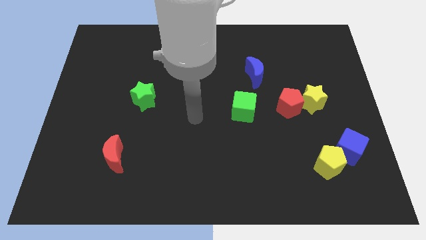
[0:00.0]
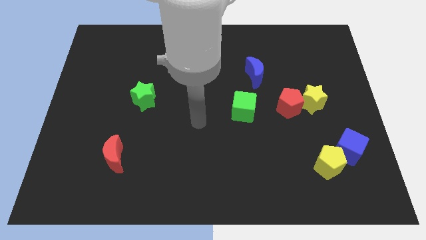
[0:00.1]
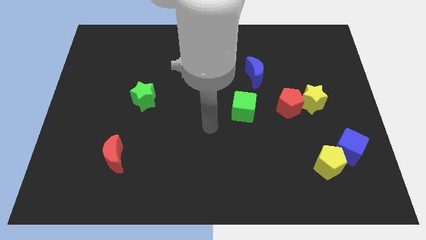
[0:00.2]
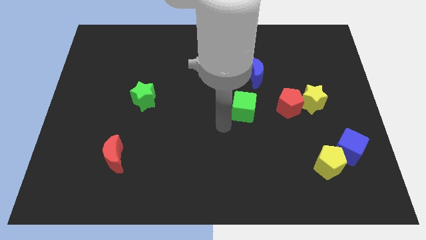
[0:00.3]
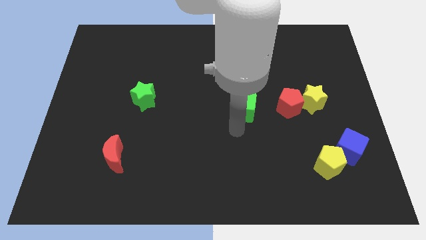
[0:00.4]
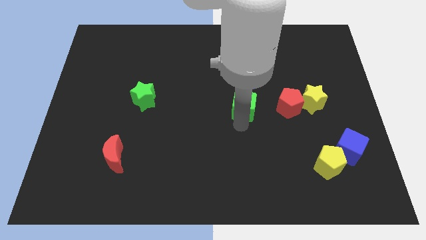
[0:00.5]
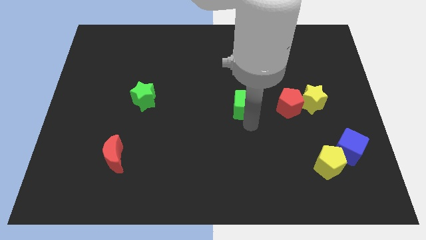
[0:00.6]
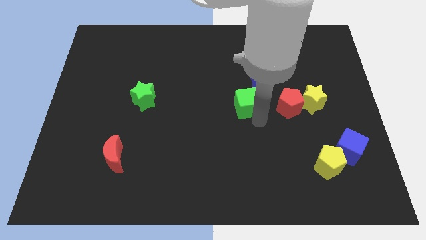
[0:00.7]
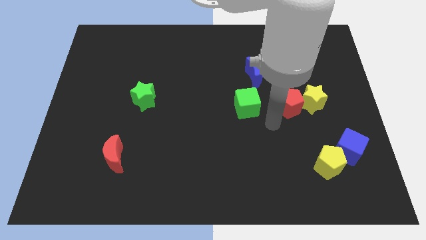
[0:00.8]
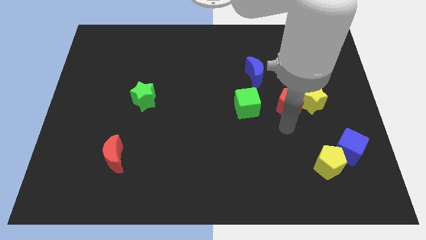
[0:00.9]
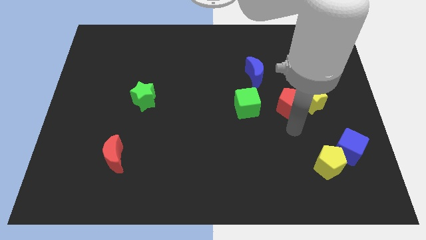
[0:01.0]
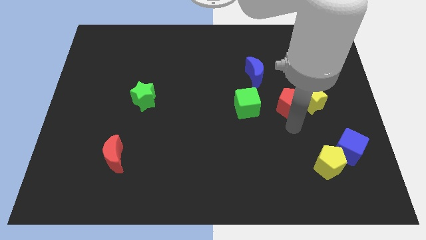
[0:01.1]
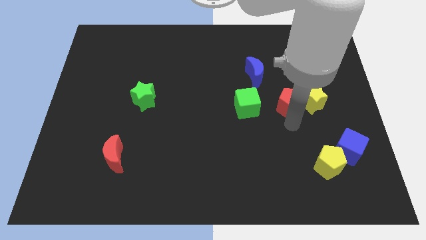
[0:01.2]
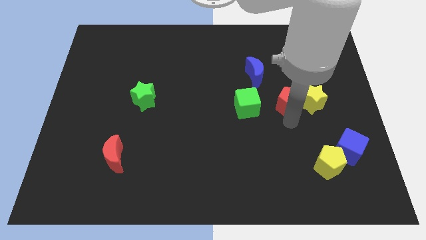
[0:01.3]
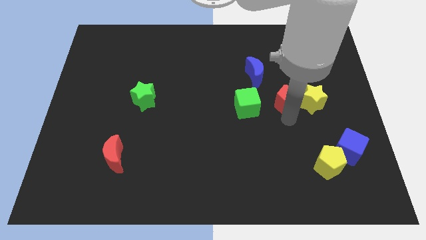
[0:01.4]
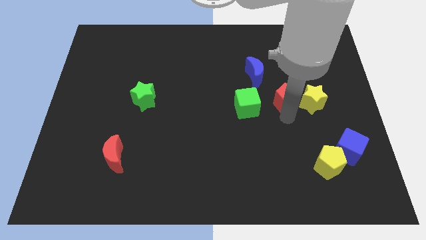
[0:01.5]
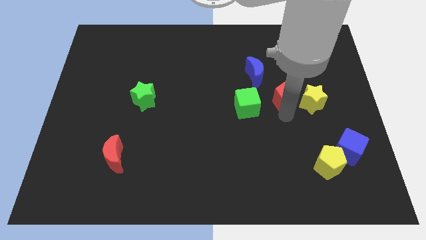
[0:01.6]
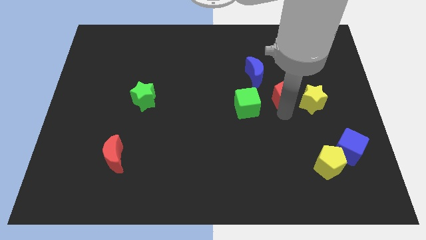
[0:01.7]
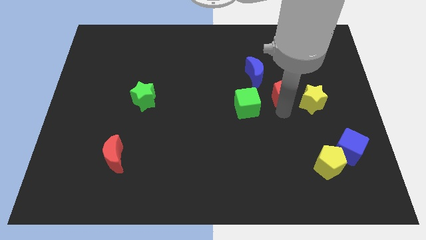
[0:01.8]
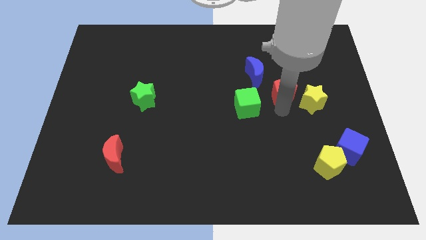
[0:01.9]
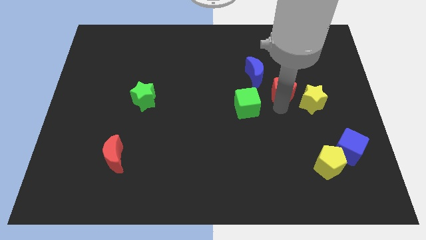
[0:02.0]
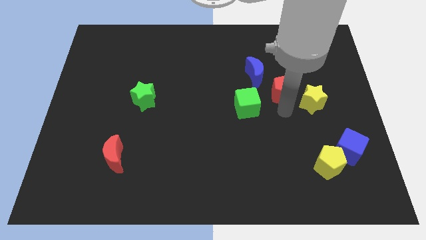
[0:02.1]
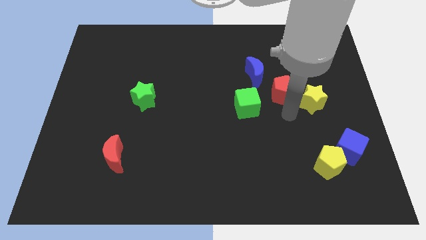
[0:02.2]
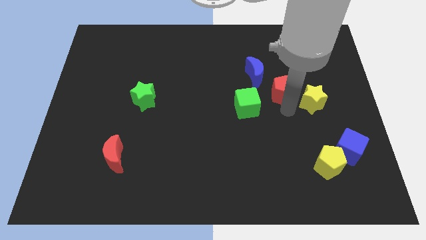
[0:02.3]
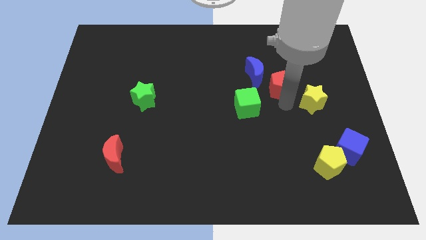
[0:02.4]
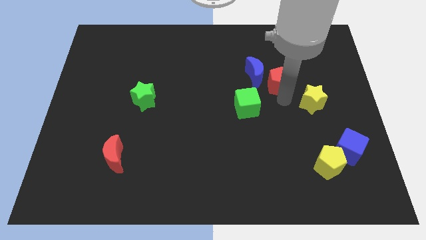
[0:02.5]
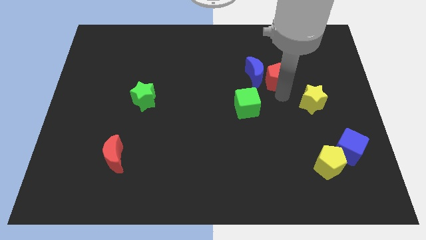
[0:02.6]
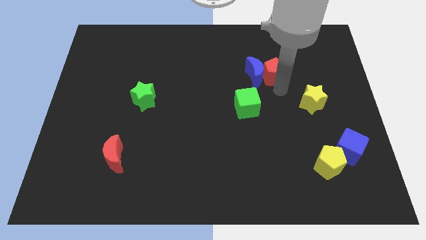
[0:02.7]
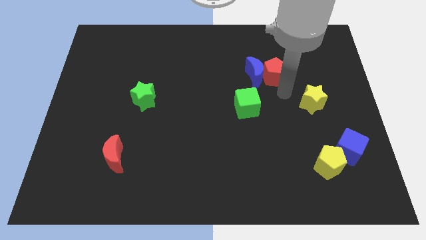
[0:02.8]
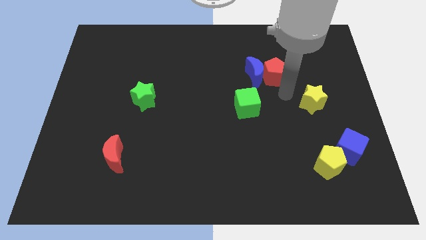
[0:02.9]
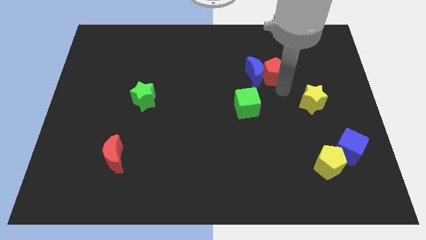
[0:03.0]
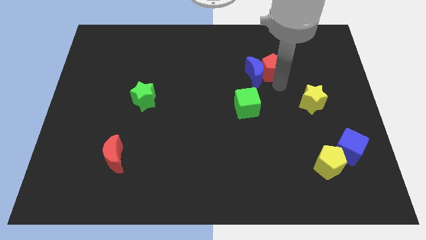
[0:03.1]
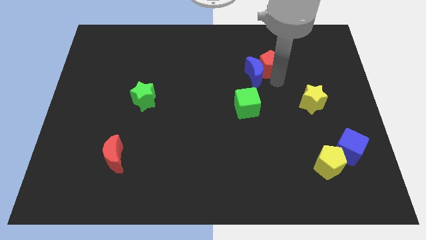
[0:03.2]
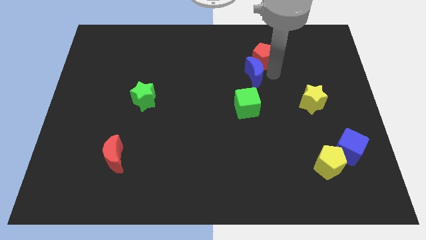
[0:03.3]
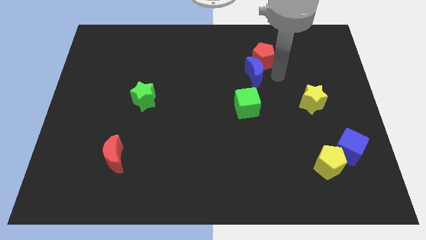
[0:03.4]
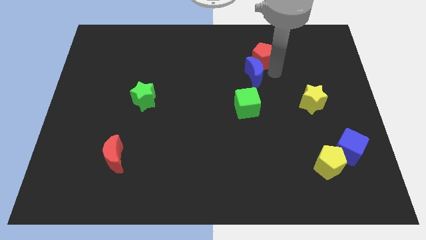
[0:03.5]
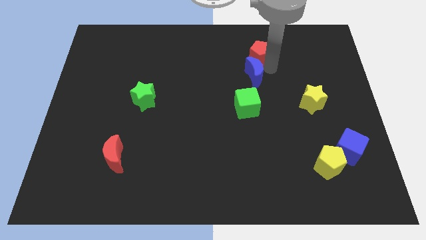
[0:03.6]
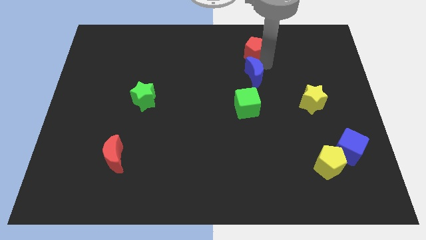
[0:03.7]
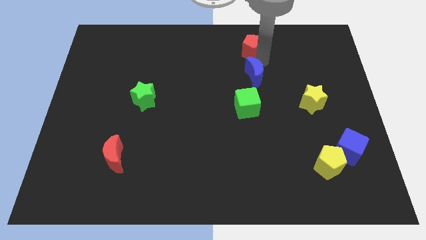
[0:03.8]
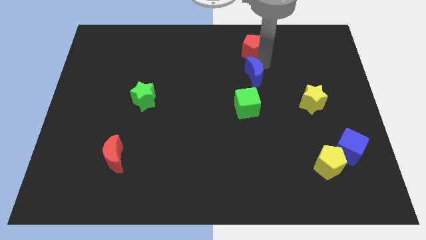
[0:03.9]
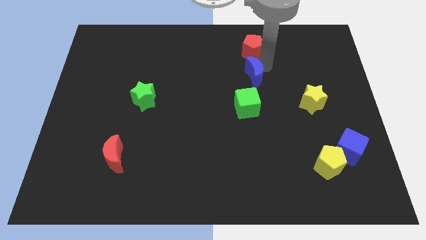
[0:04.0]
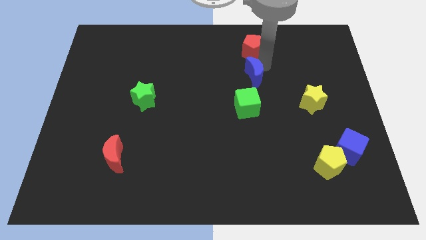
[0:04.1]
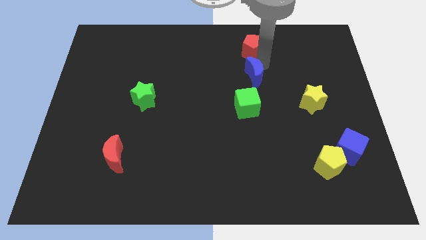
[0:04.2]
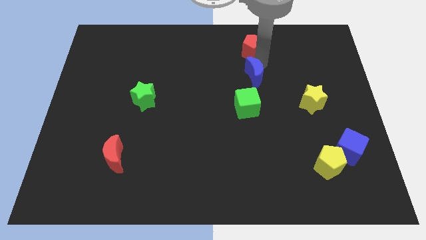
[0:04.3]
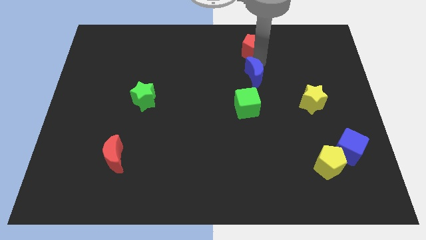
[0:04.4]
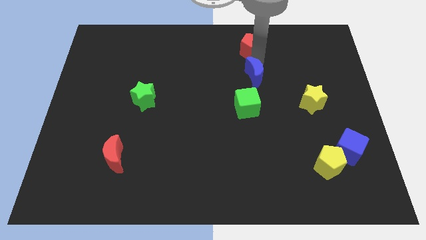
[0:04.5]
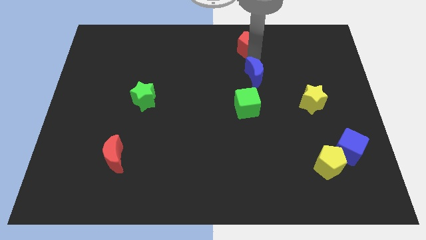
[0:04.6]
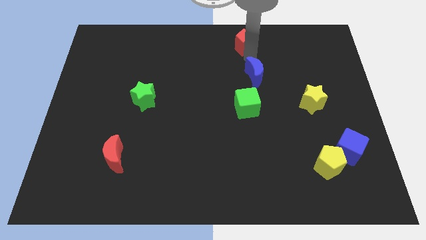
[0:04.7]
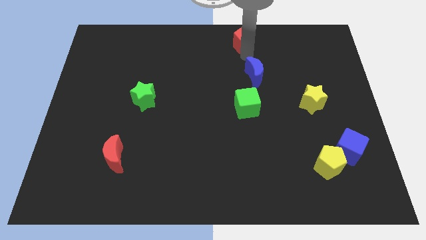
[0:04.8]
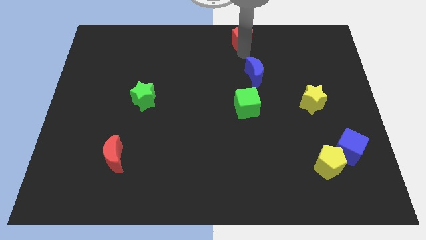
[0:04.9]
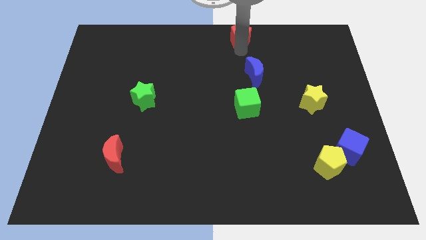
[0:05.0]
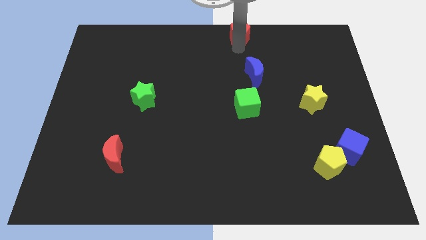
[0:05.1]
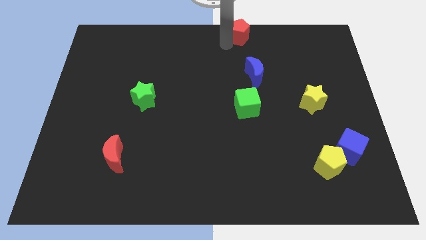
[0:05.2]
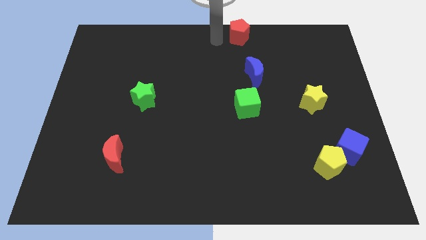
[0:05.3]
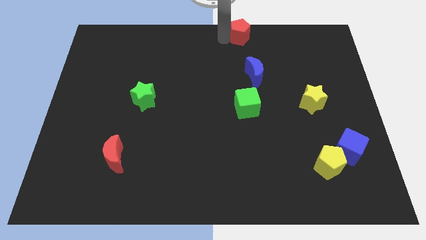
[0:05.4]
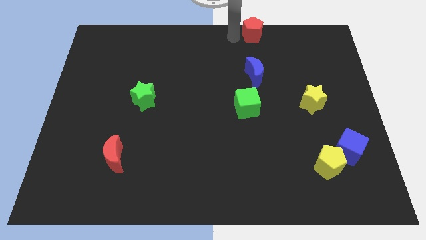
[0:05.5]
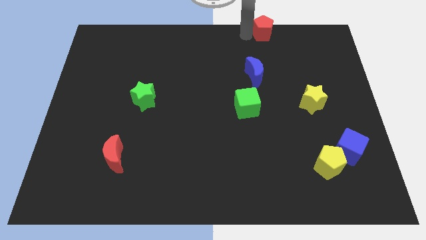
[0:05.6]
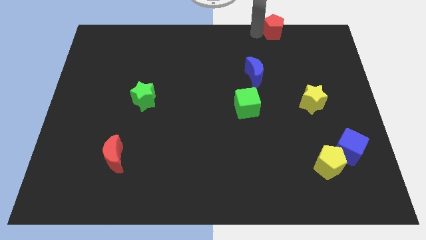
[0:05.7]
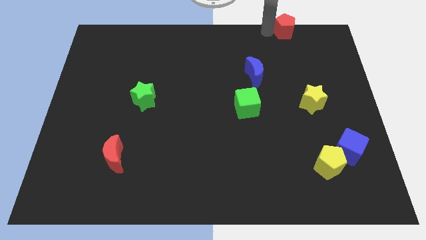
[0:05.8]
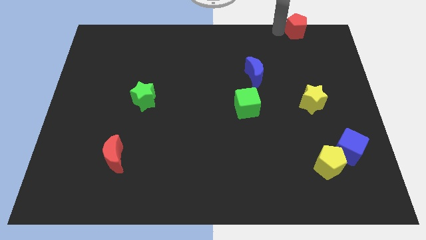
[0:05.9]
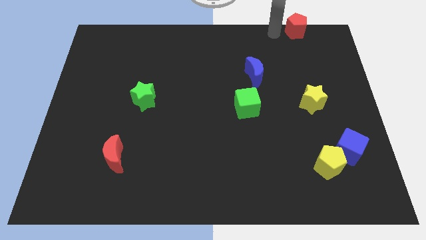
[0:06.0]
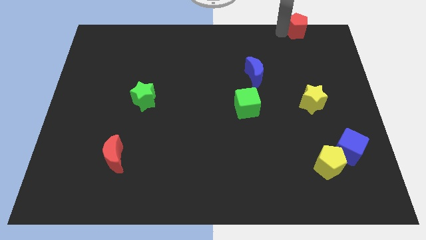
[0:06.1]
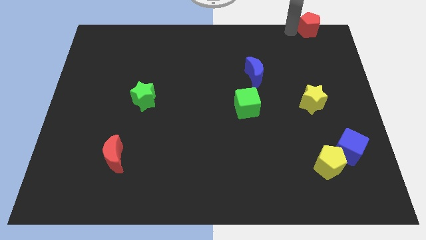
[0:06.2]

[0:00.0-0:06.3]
push the red pentagon to the top right

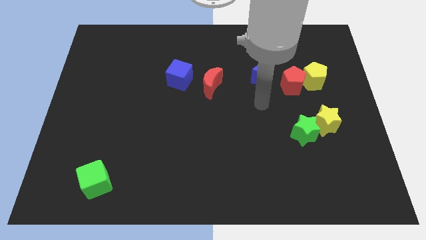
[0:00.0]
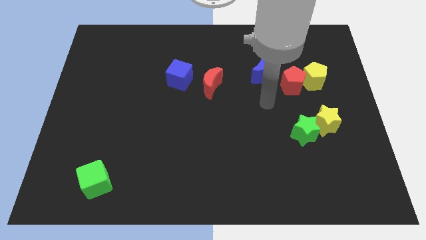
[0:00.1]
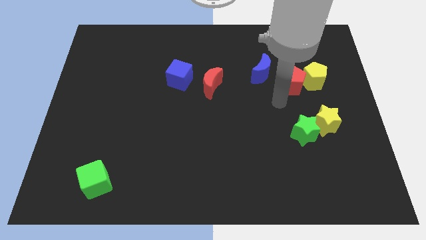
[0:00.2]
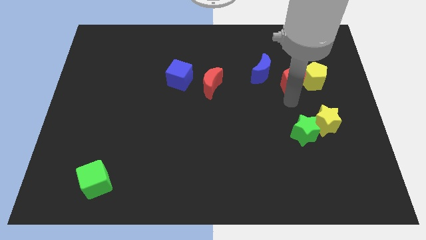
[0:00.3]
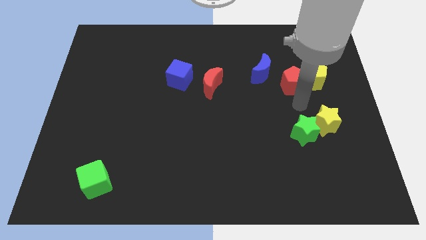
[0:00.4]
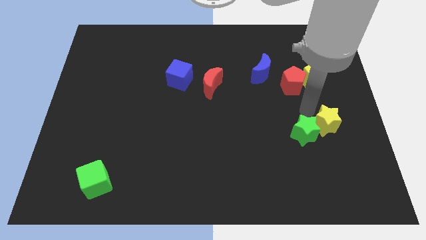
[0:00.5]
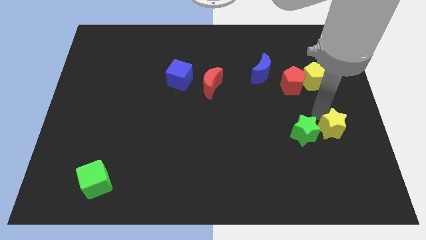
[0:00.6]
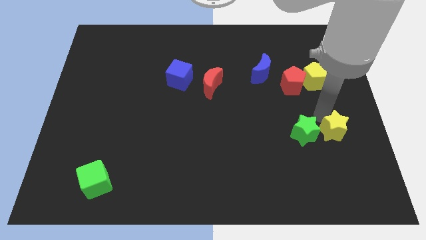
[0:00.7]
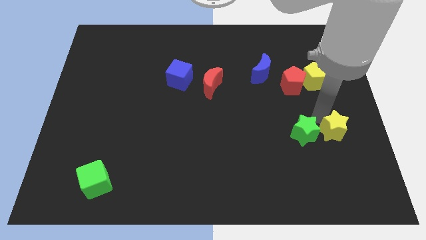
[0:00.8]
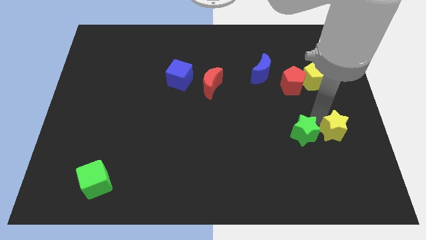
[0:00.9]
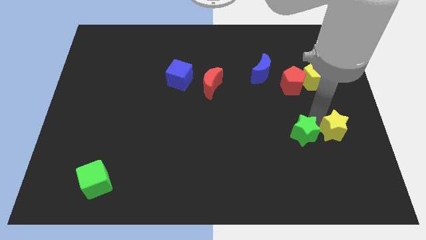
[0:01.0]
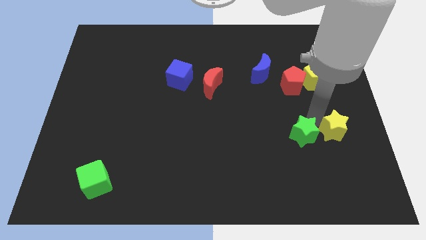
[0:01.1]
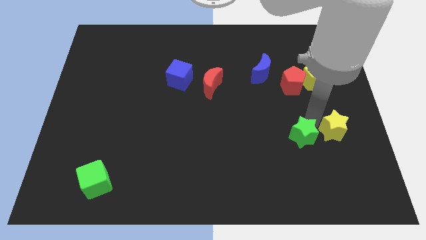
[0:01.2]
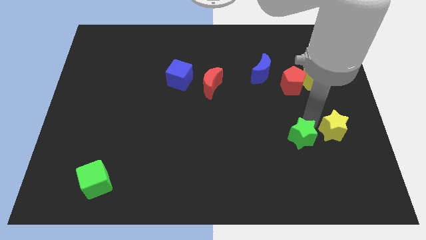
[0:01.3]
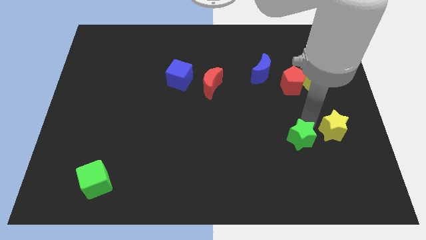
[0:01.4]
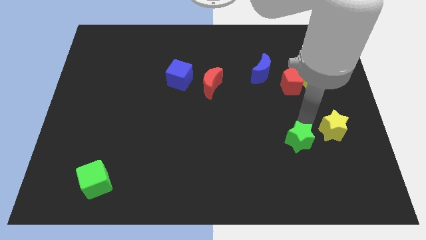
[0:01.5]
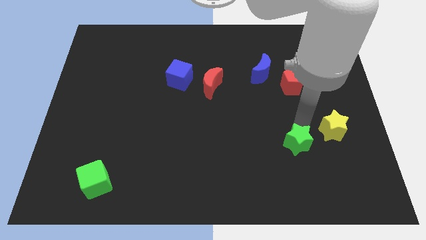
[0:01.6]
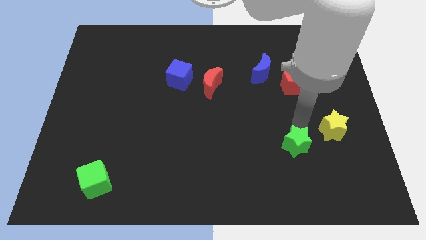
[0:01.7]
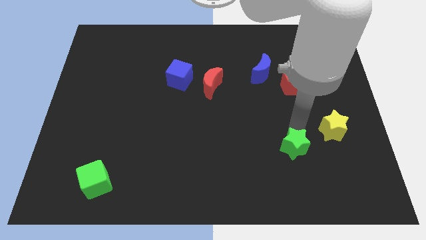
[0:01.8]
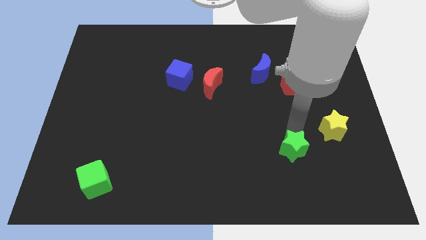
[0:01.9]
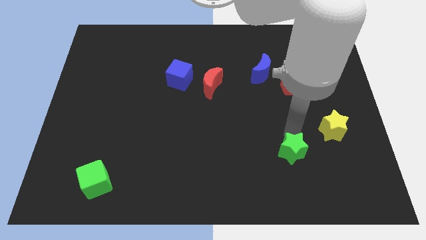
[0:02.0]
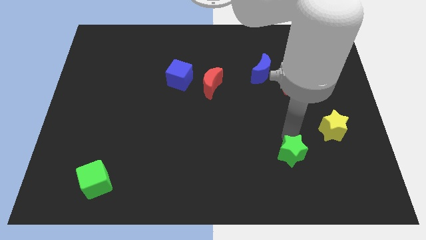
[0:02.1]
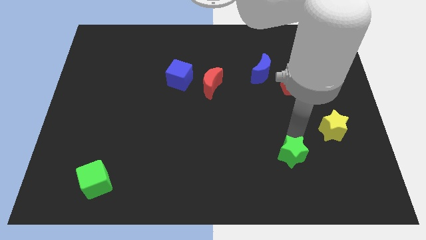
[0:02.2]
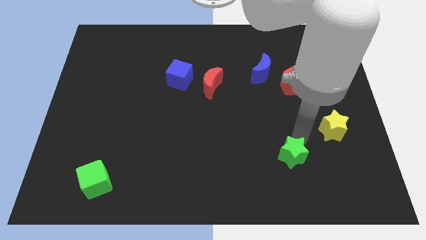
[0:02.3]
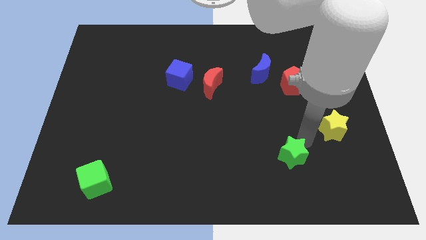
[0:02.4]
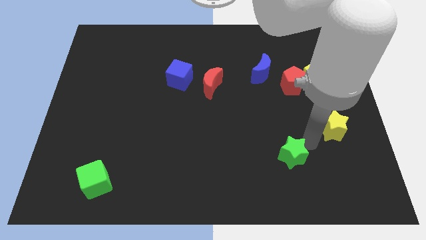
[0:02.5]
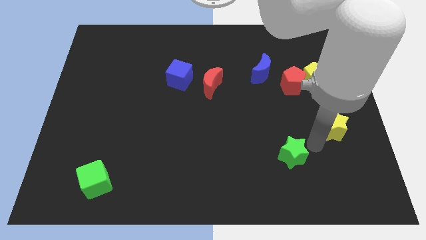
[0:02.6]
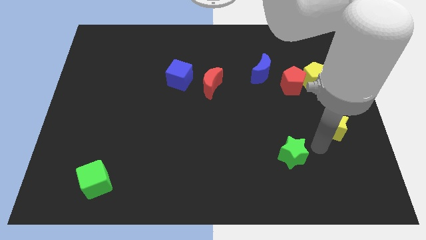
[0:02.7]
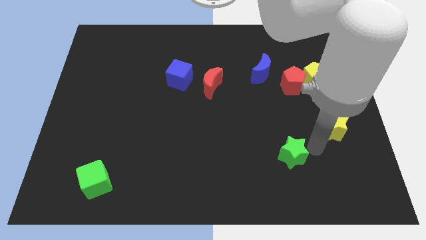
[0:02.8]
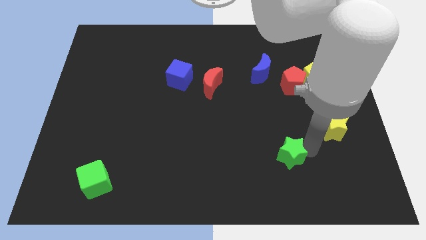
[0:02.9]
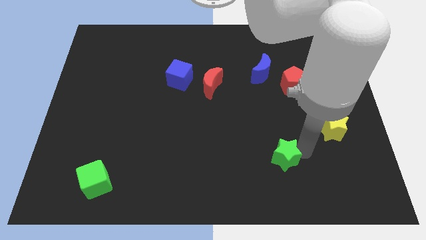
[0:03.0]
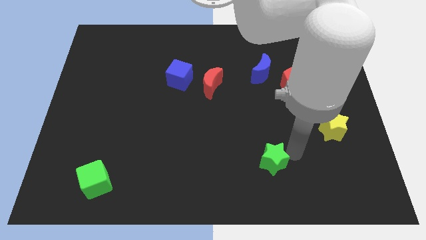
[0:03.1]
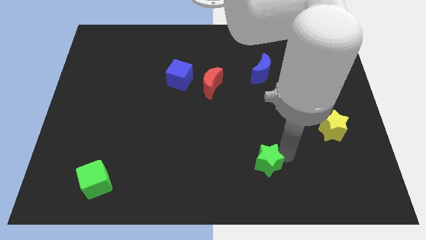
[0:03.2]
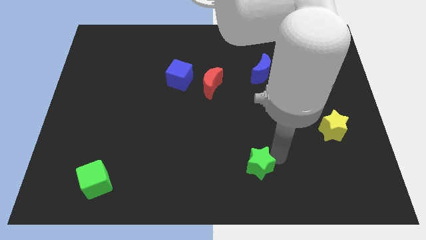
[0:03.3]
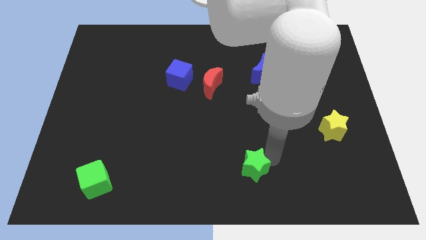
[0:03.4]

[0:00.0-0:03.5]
slide the green star to the bottom side
